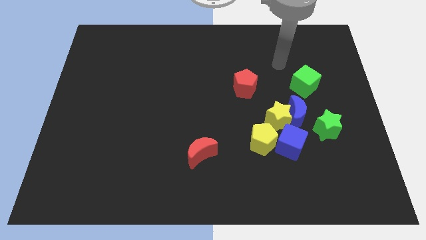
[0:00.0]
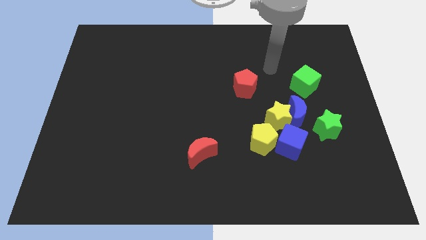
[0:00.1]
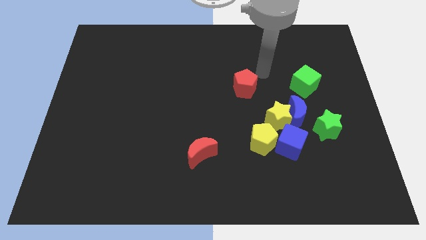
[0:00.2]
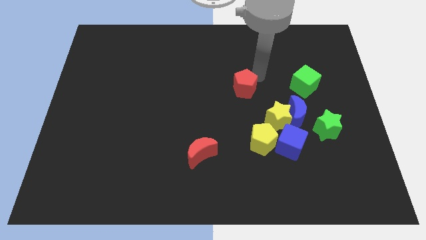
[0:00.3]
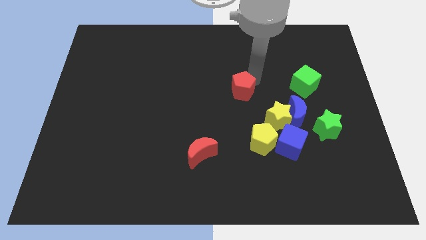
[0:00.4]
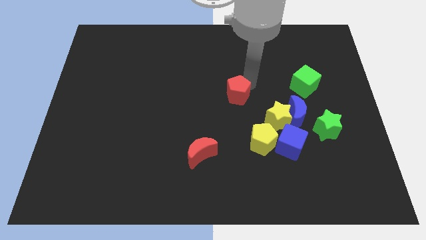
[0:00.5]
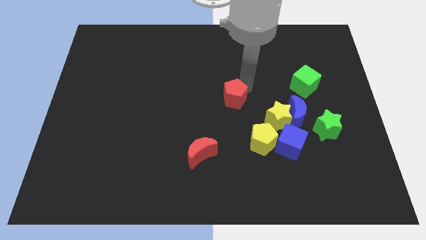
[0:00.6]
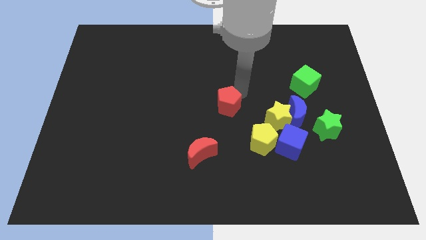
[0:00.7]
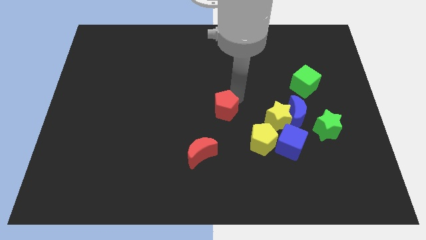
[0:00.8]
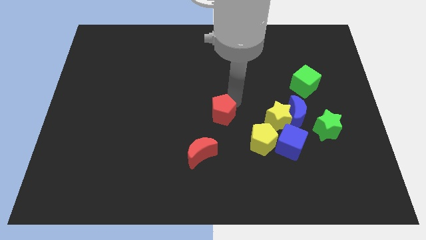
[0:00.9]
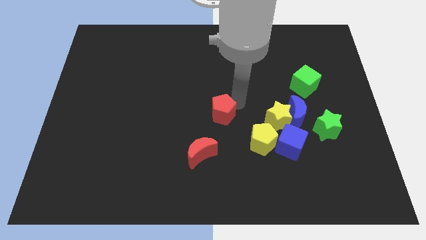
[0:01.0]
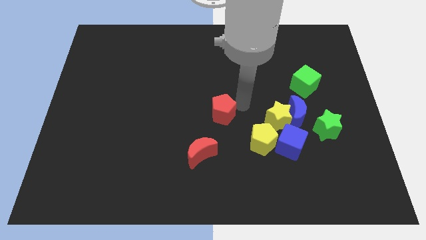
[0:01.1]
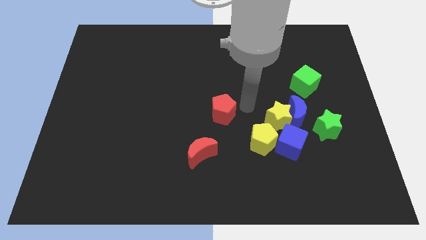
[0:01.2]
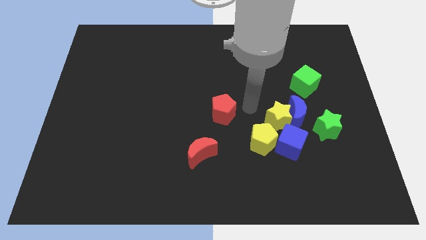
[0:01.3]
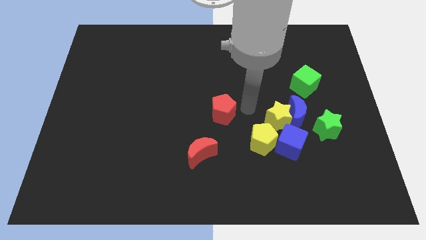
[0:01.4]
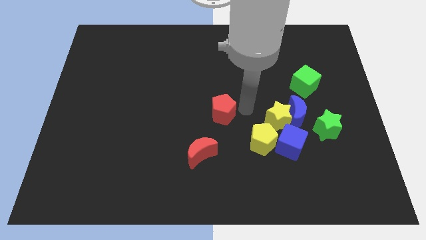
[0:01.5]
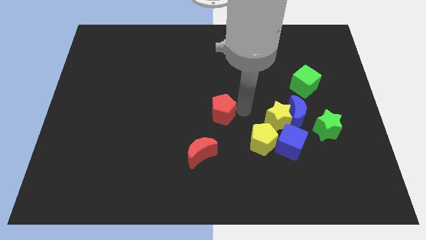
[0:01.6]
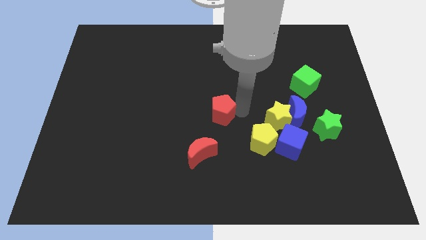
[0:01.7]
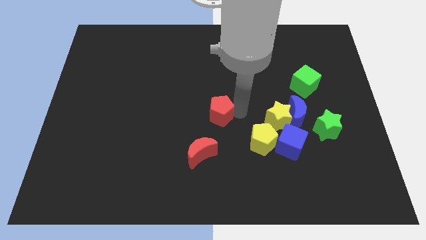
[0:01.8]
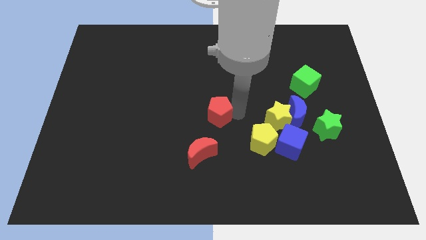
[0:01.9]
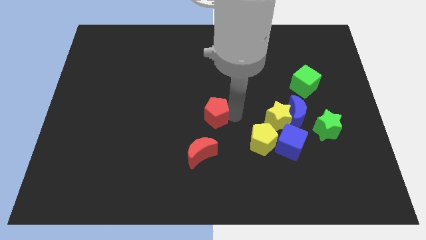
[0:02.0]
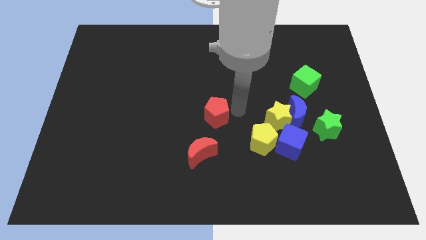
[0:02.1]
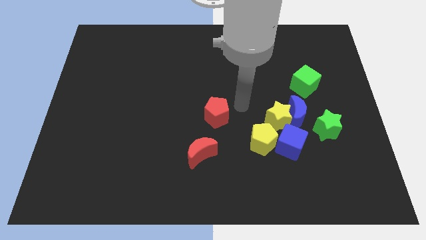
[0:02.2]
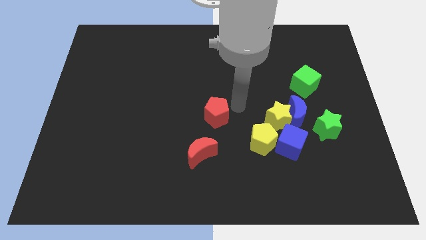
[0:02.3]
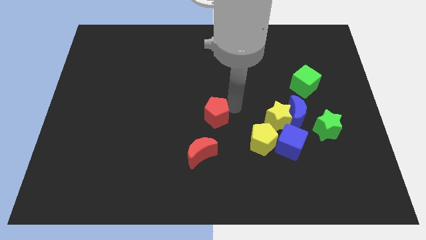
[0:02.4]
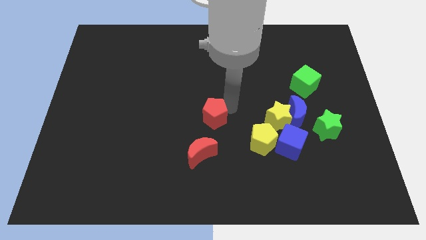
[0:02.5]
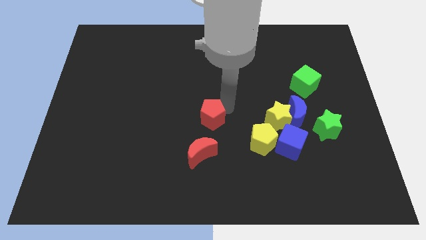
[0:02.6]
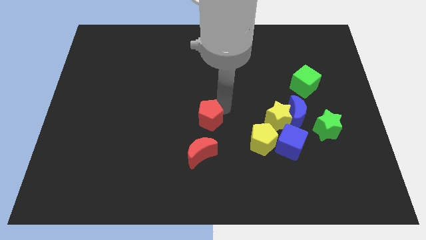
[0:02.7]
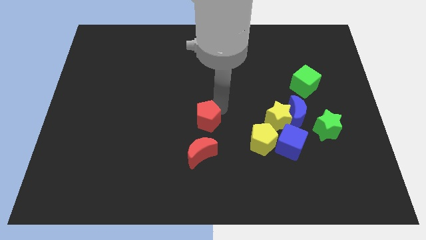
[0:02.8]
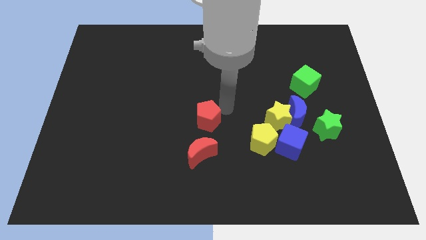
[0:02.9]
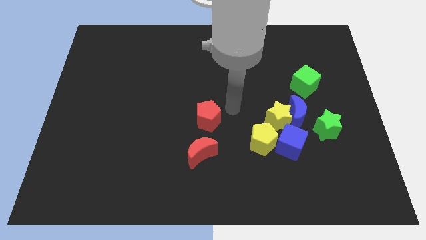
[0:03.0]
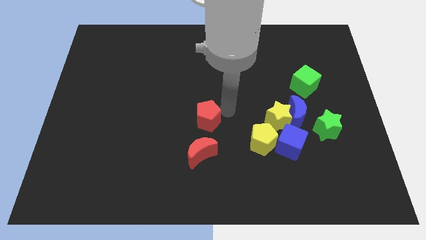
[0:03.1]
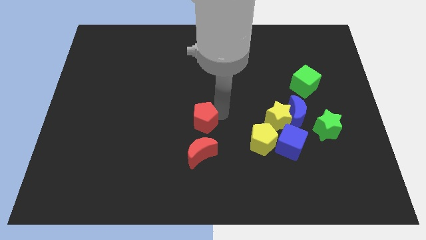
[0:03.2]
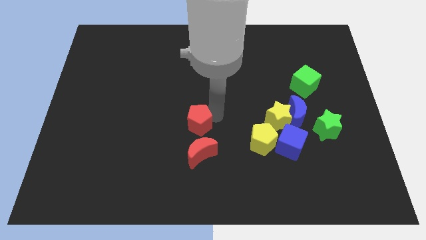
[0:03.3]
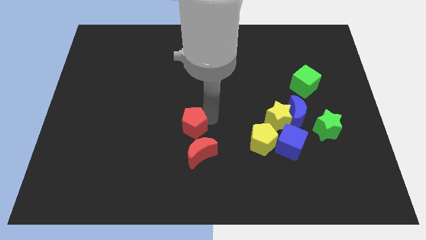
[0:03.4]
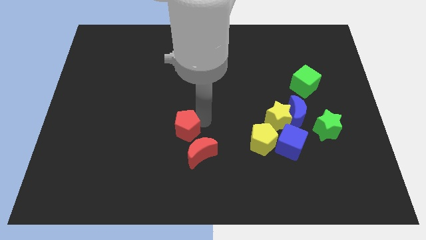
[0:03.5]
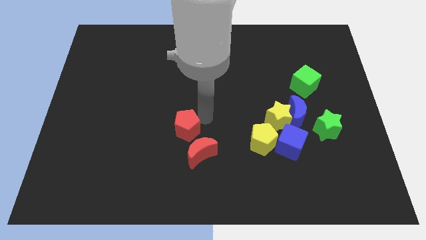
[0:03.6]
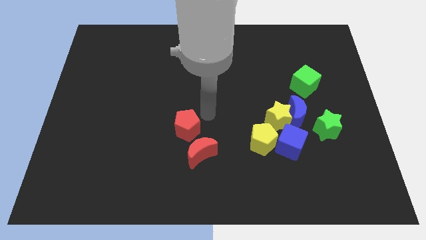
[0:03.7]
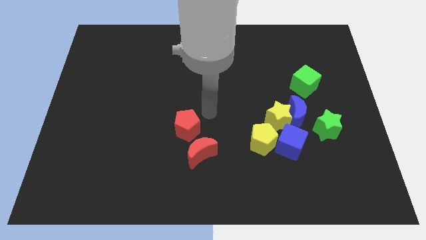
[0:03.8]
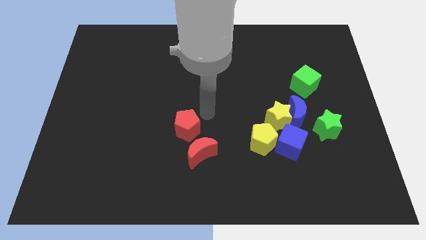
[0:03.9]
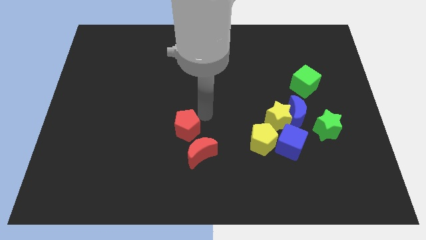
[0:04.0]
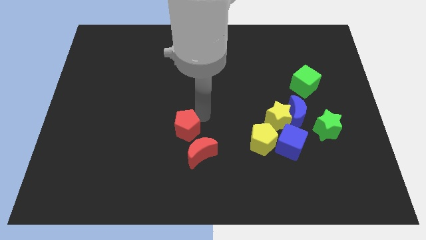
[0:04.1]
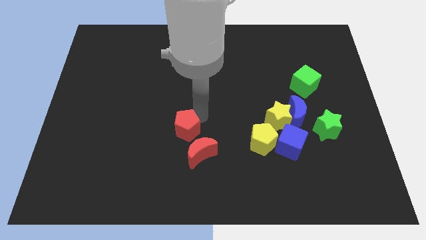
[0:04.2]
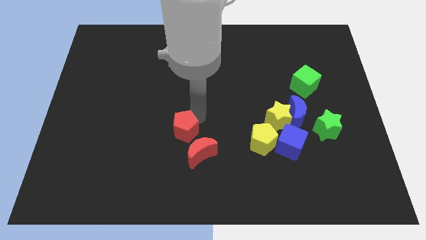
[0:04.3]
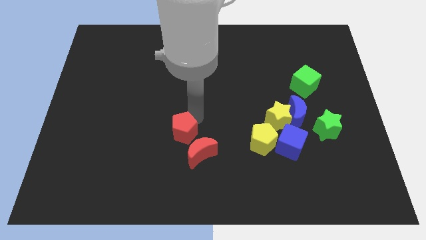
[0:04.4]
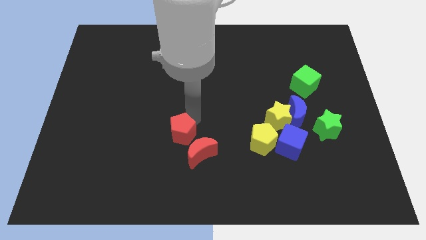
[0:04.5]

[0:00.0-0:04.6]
slide the red pentagon diagonally down and left

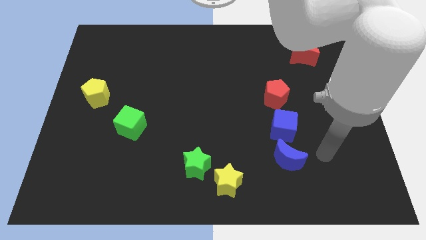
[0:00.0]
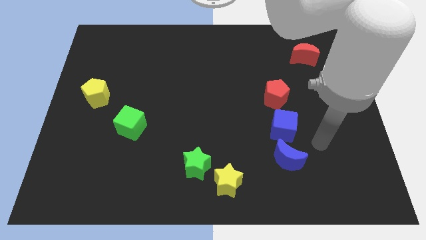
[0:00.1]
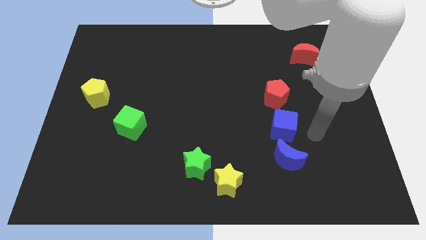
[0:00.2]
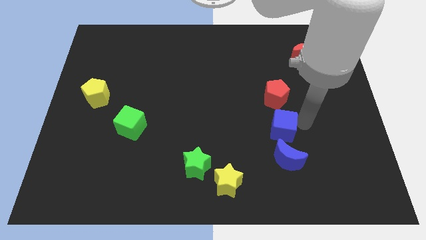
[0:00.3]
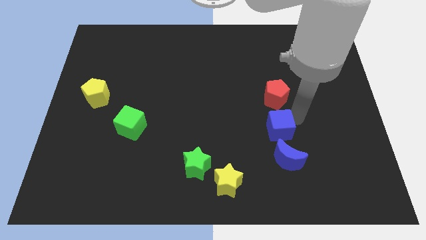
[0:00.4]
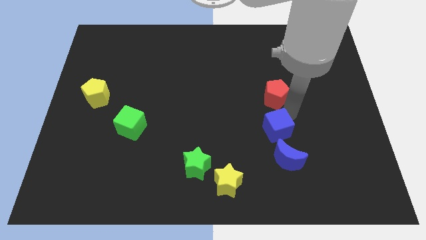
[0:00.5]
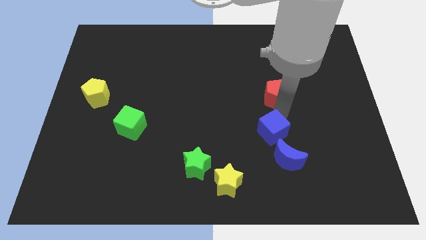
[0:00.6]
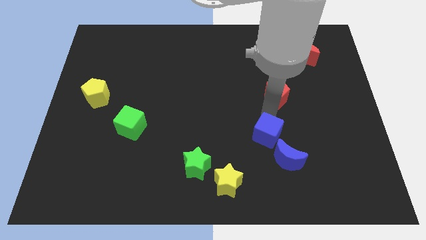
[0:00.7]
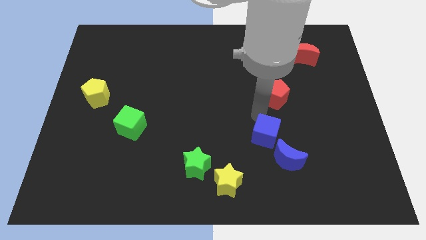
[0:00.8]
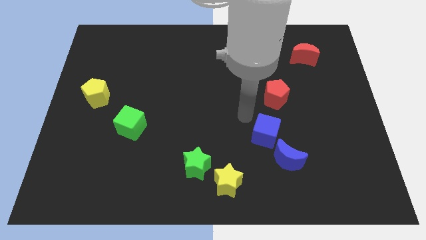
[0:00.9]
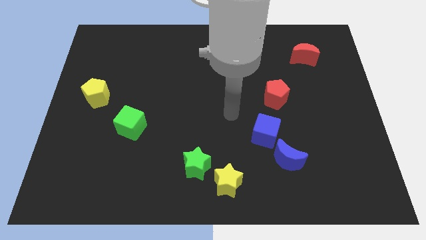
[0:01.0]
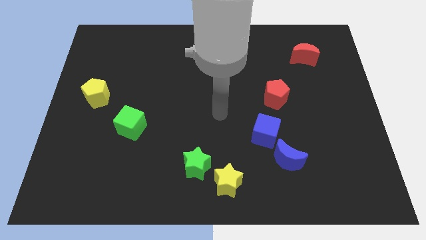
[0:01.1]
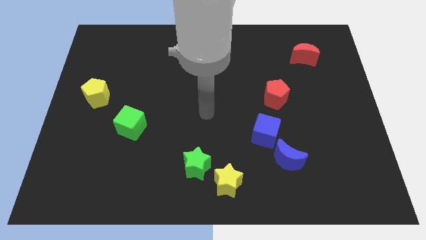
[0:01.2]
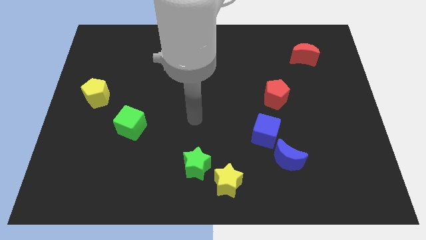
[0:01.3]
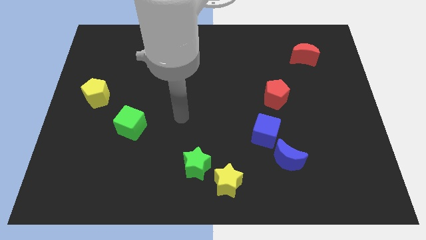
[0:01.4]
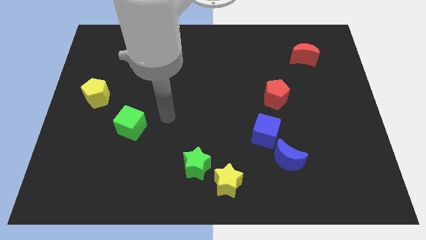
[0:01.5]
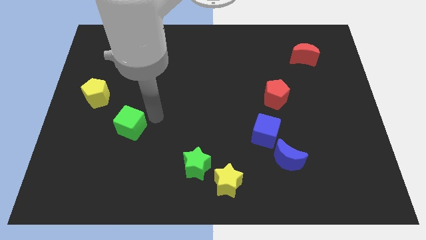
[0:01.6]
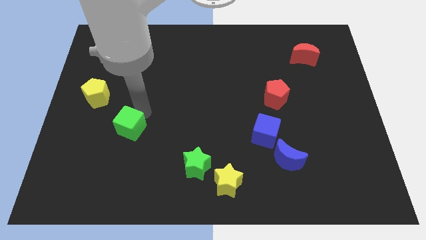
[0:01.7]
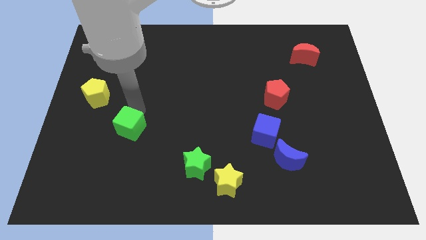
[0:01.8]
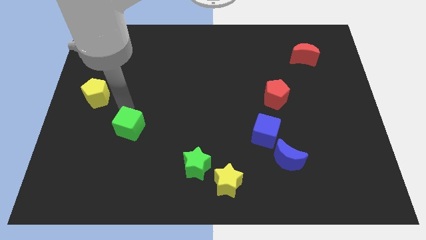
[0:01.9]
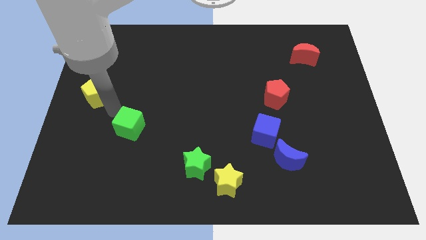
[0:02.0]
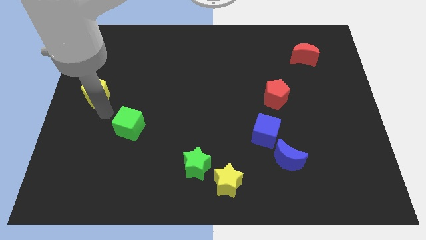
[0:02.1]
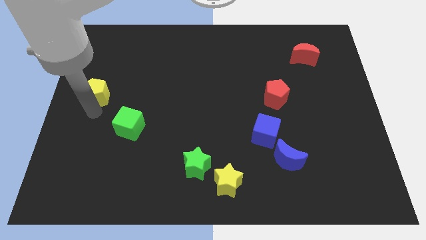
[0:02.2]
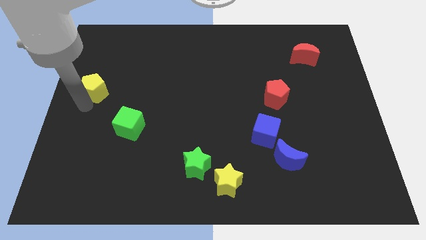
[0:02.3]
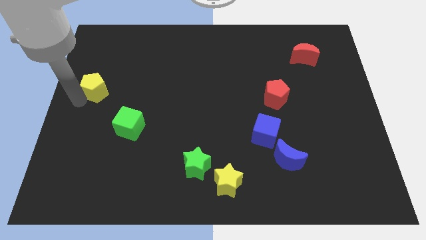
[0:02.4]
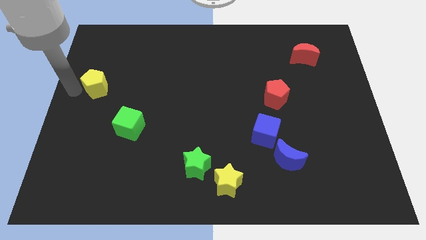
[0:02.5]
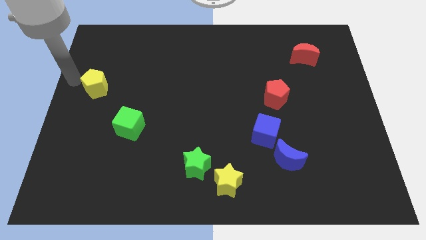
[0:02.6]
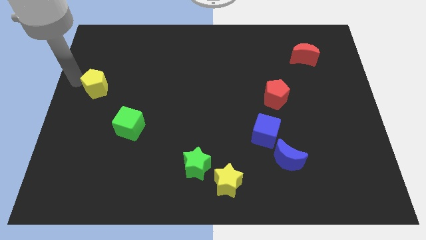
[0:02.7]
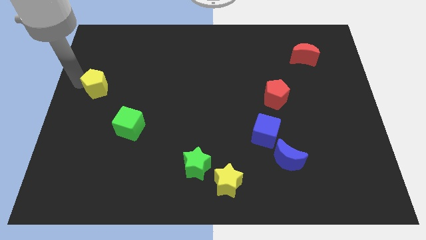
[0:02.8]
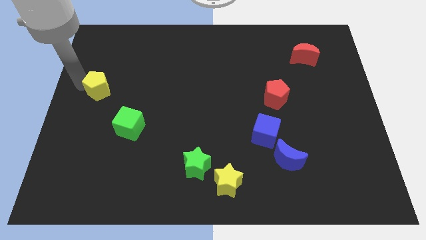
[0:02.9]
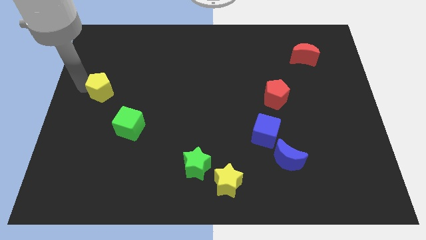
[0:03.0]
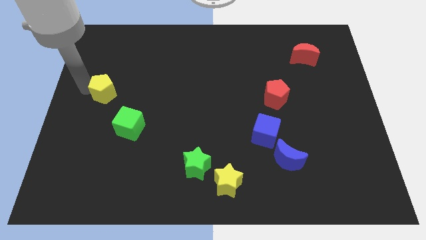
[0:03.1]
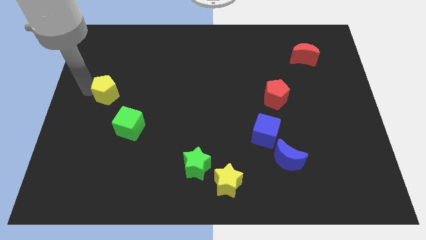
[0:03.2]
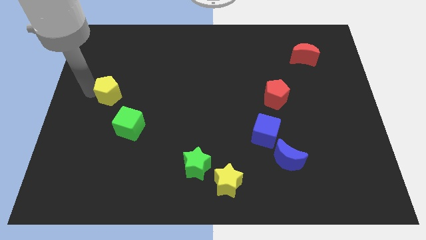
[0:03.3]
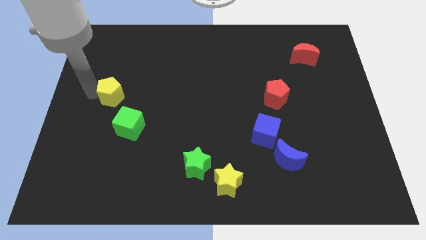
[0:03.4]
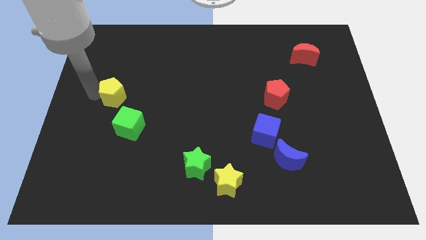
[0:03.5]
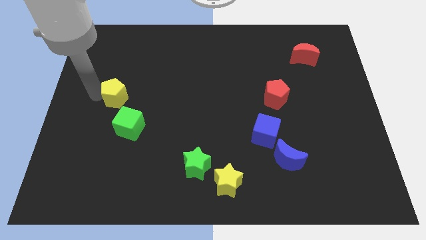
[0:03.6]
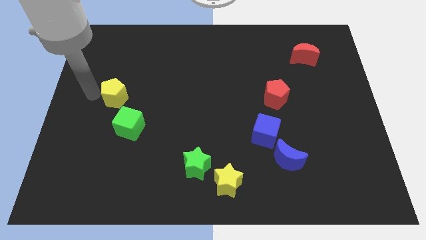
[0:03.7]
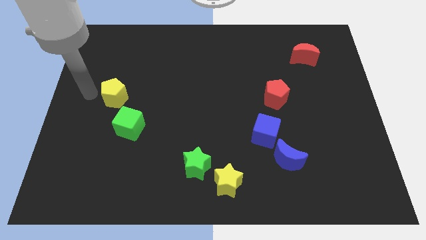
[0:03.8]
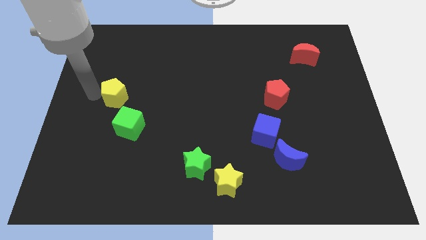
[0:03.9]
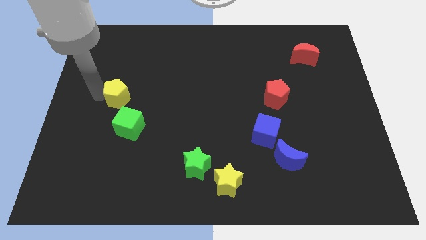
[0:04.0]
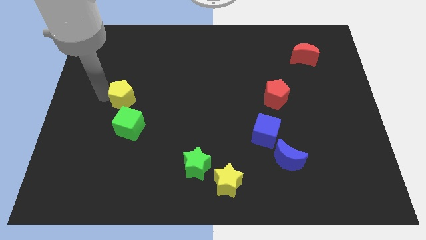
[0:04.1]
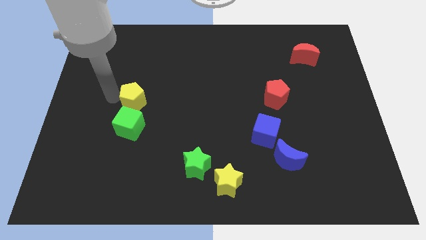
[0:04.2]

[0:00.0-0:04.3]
push the yellow pentagon a little to the right
